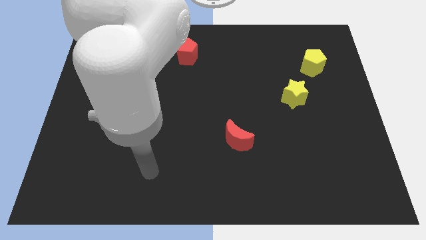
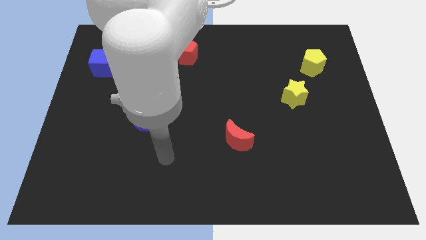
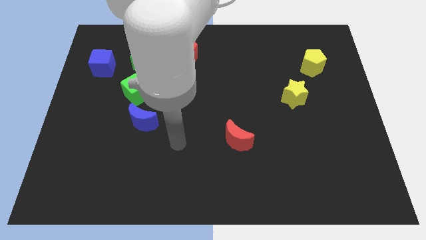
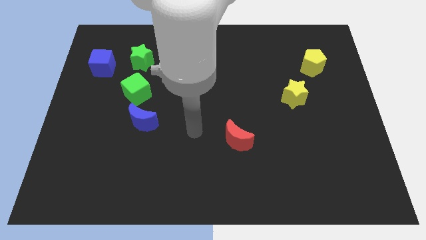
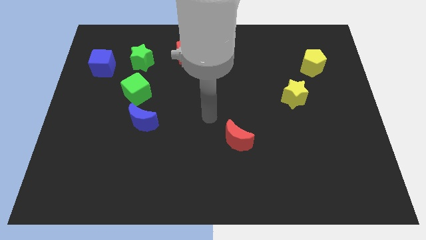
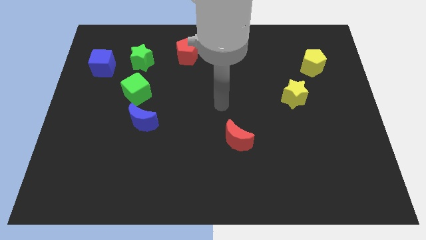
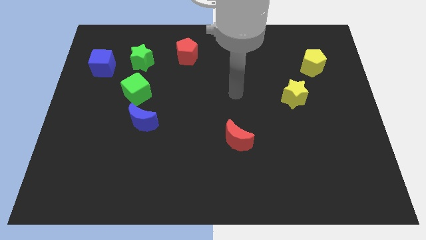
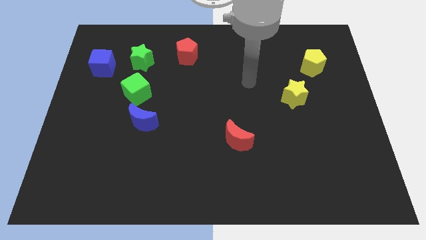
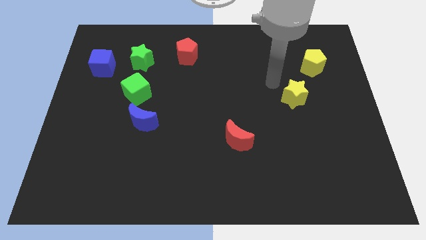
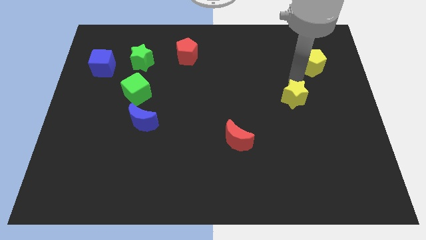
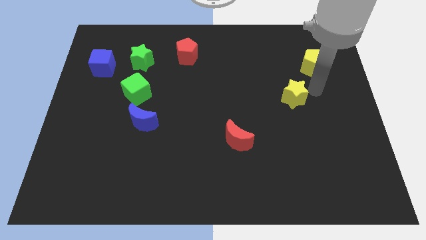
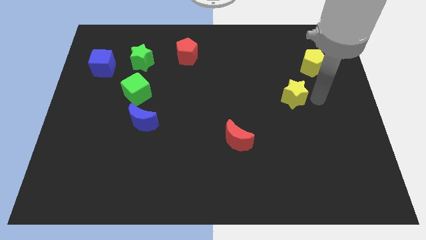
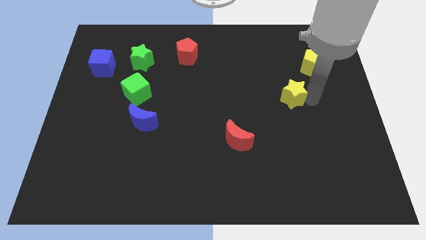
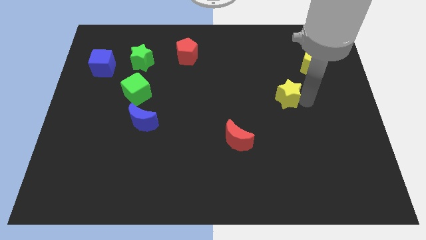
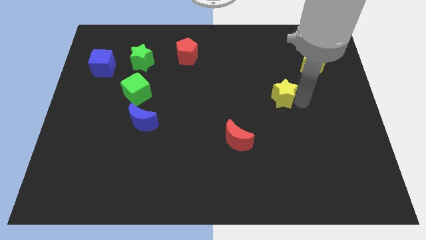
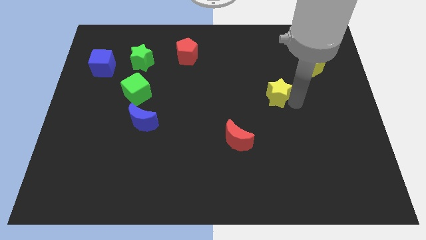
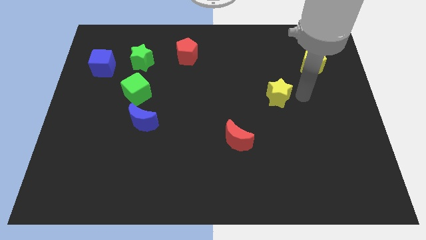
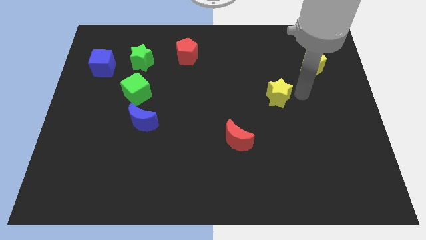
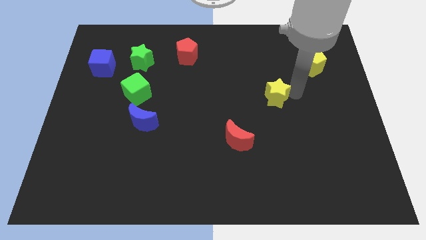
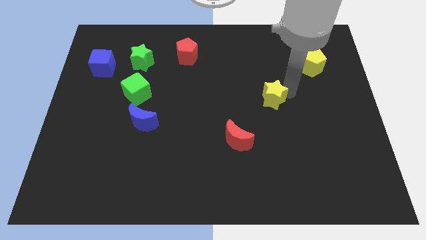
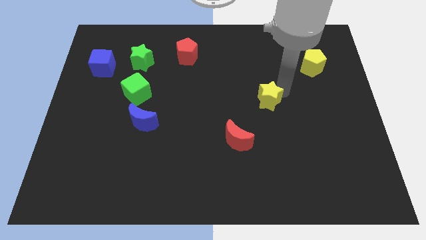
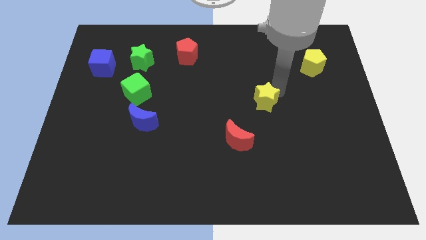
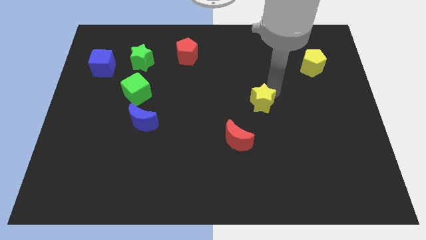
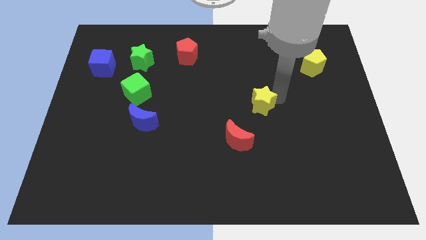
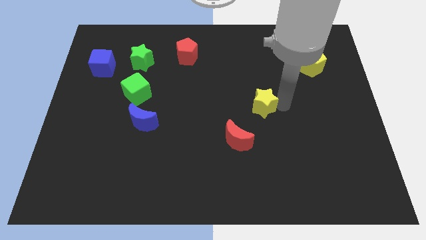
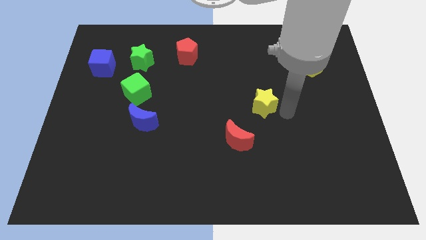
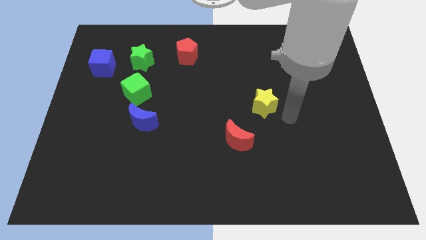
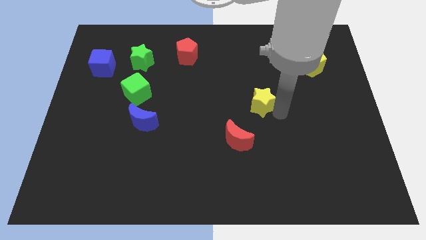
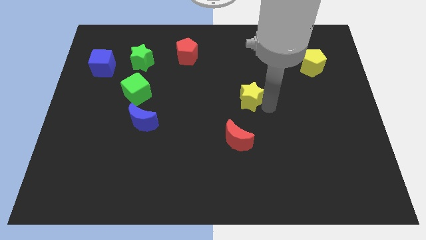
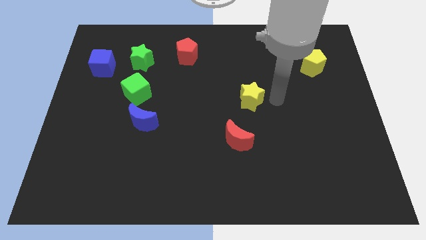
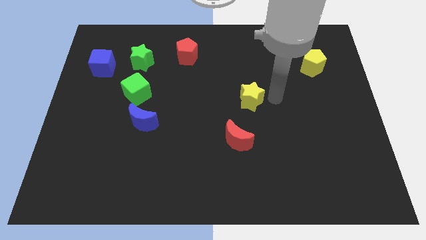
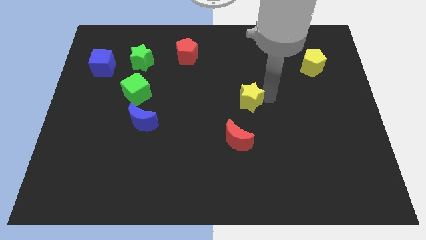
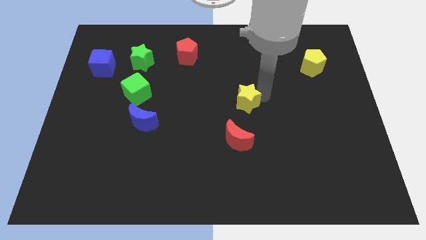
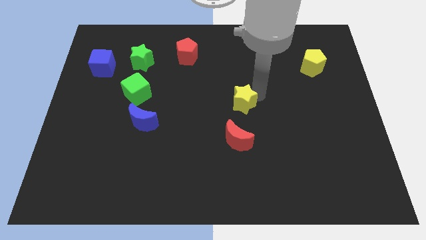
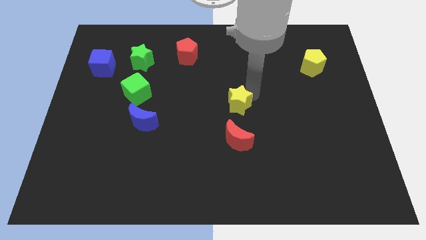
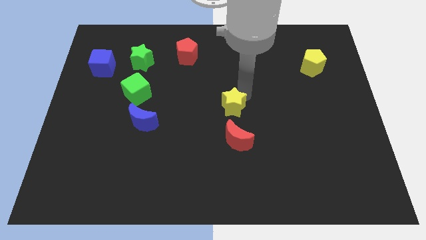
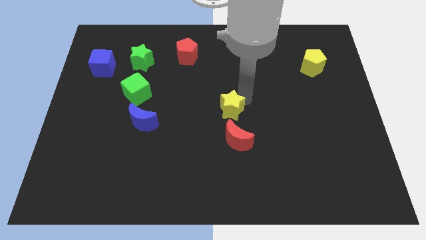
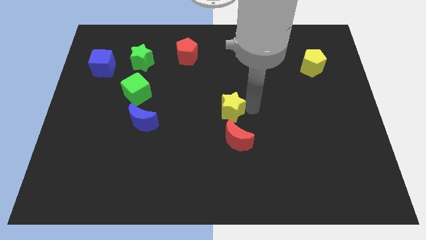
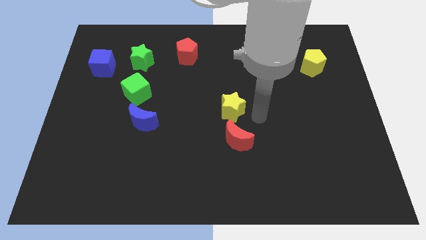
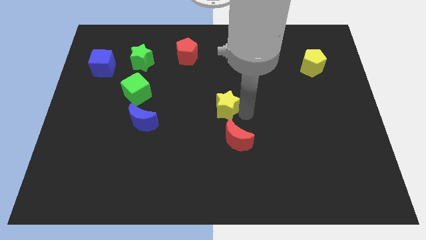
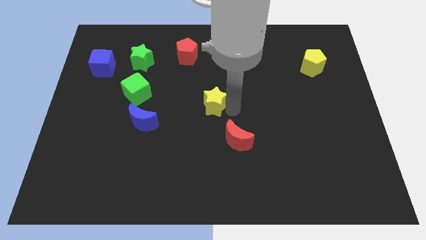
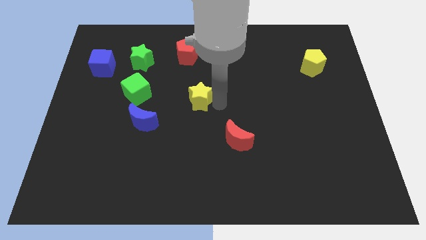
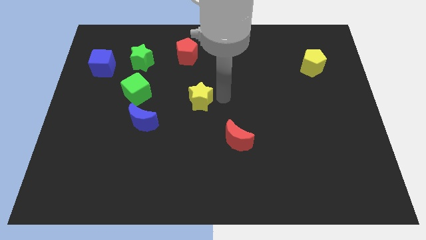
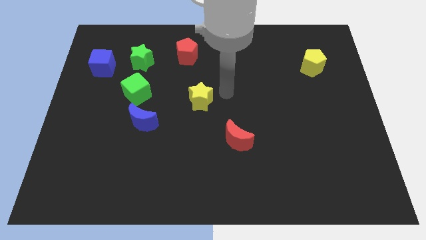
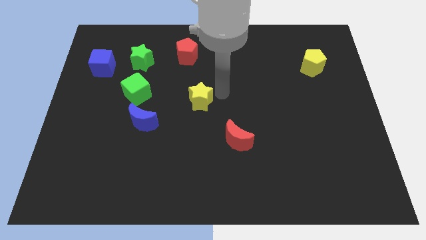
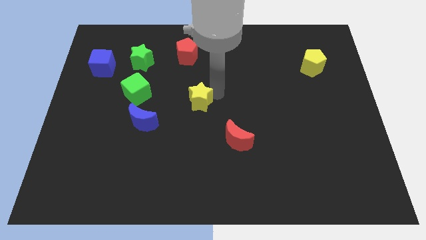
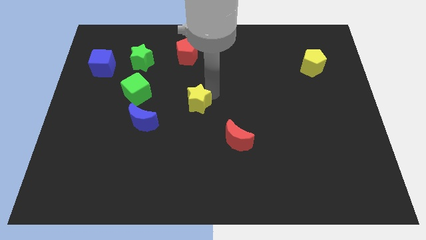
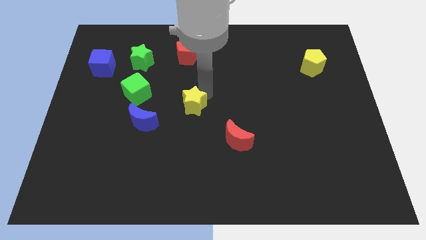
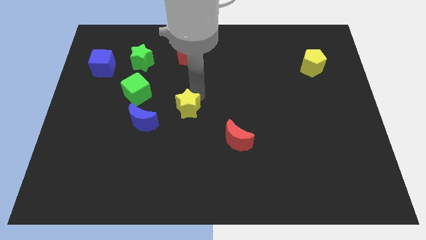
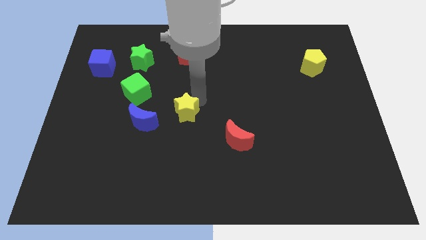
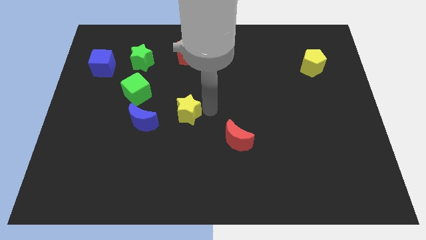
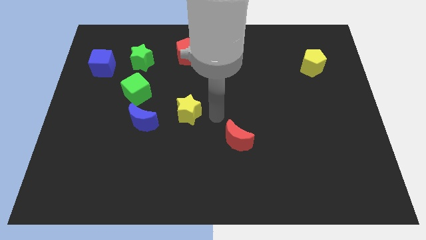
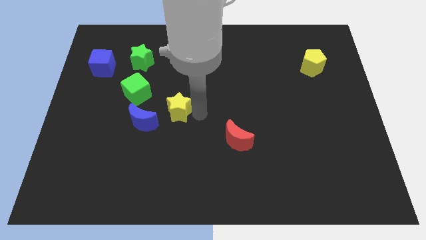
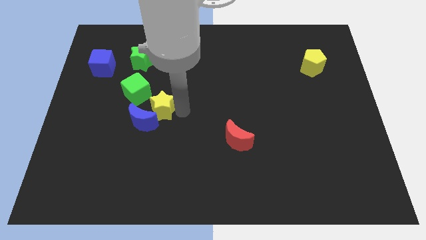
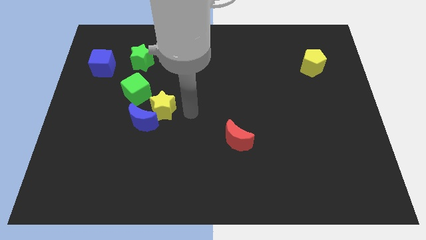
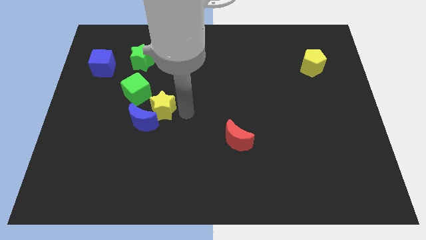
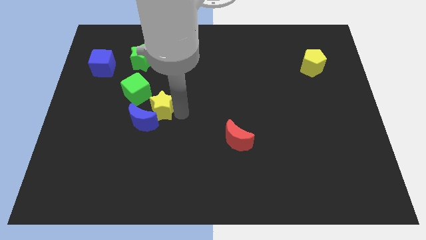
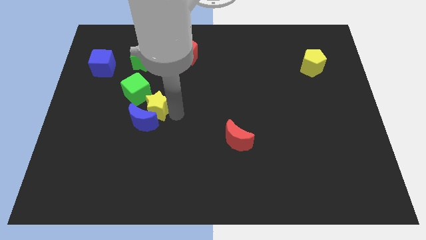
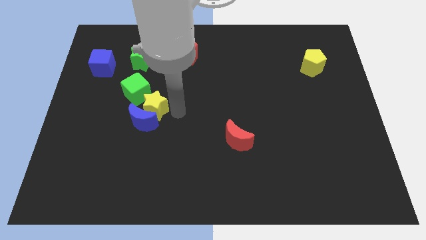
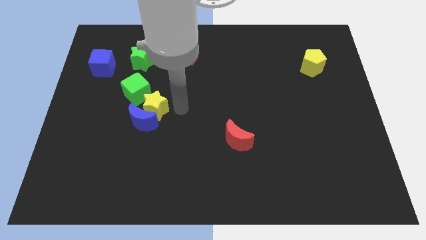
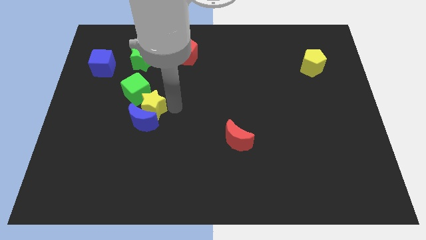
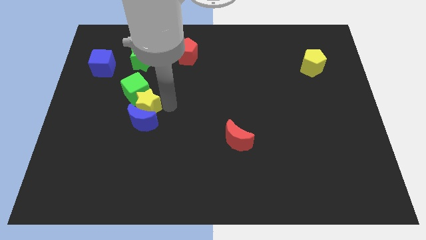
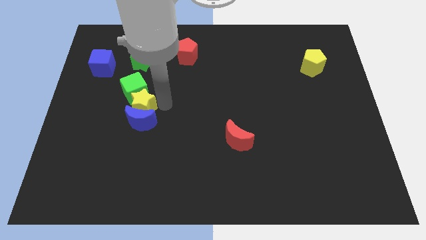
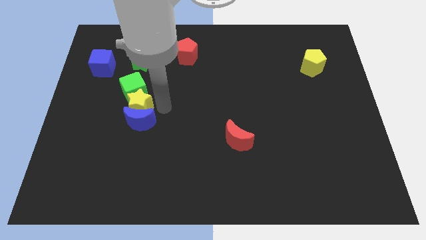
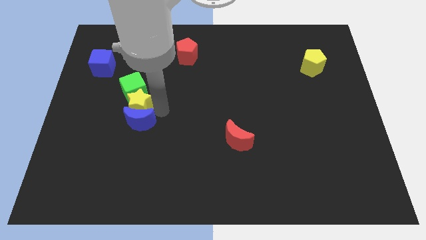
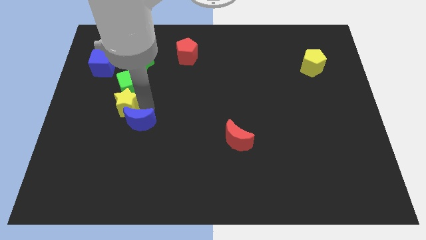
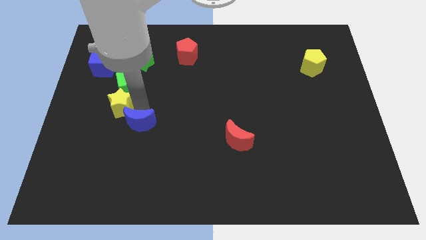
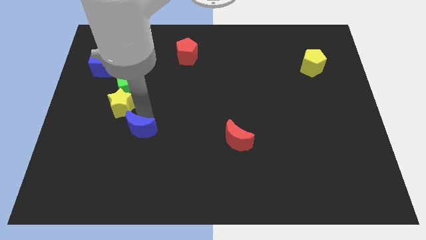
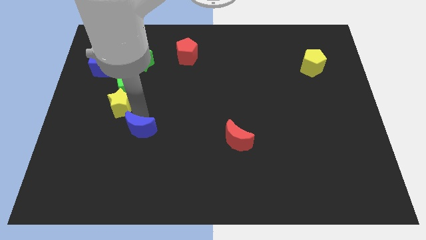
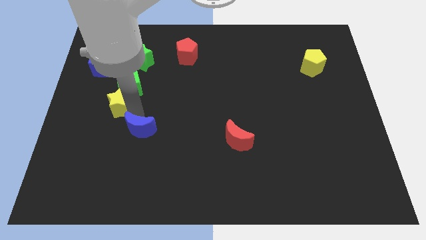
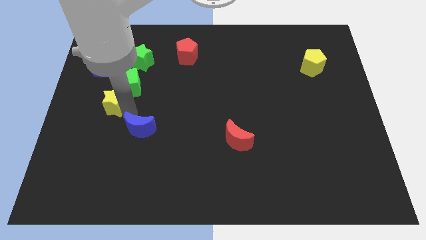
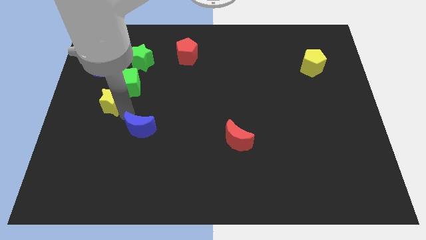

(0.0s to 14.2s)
slide the yellow star below the blue cube
